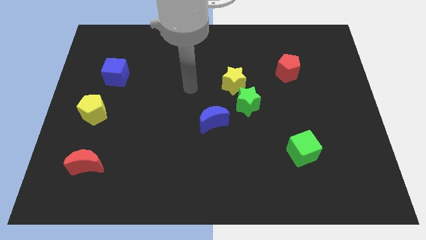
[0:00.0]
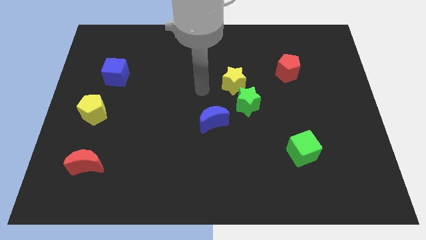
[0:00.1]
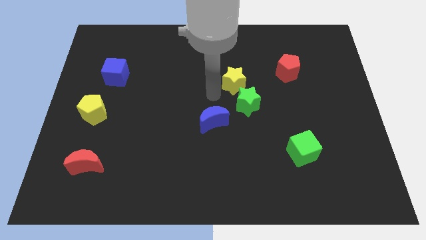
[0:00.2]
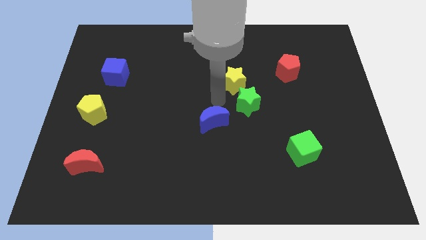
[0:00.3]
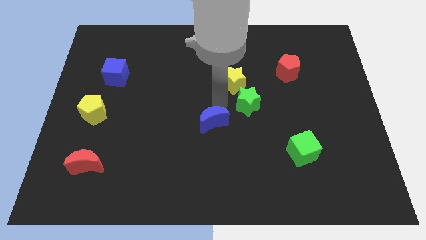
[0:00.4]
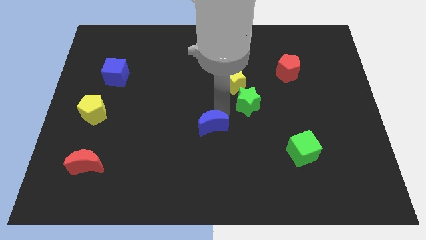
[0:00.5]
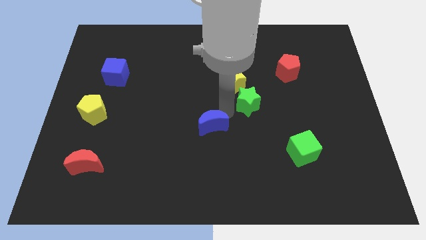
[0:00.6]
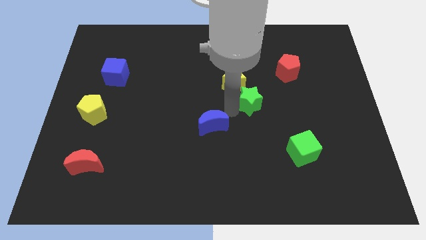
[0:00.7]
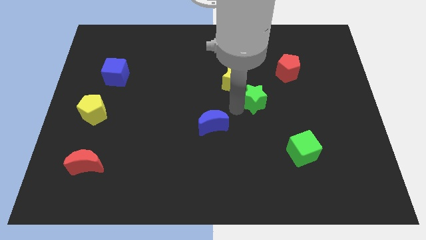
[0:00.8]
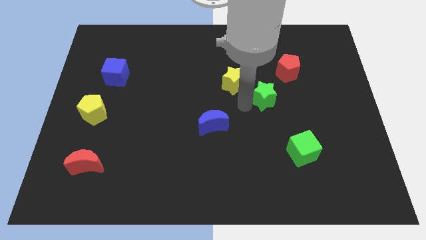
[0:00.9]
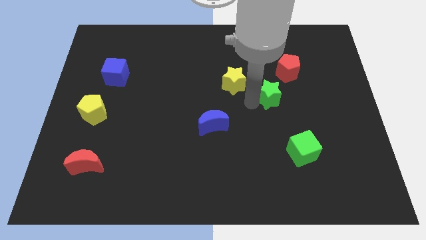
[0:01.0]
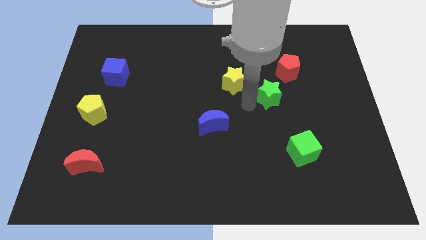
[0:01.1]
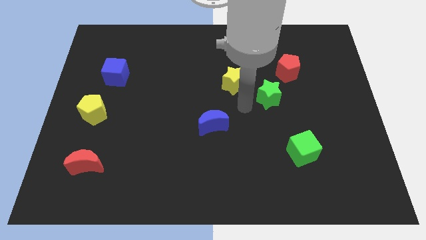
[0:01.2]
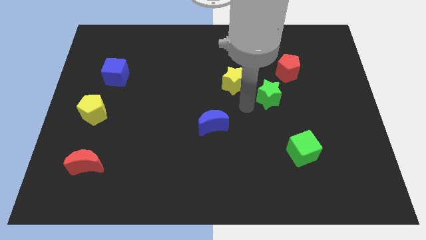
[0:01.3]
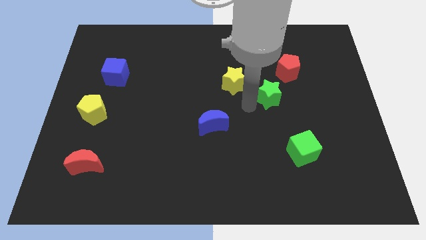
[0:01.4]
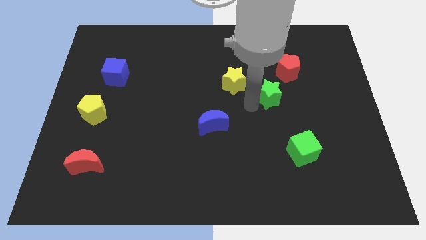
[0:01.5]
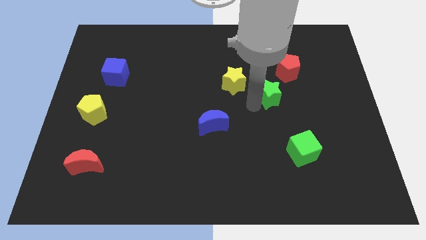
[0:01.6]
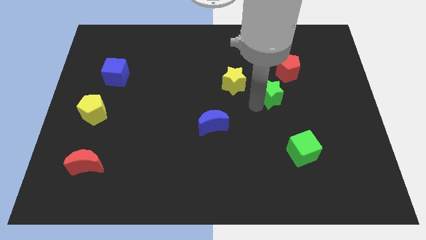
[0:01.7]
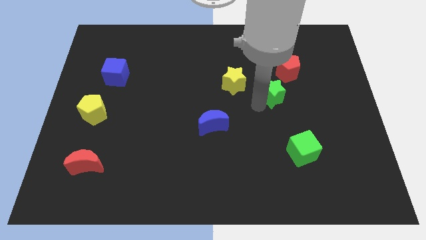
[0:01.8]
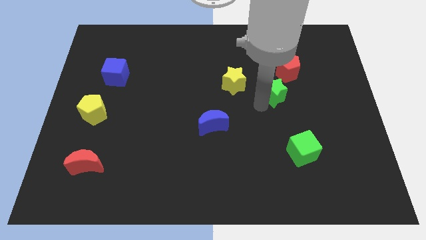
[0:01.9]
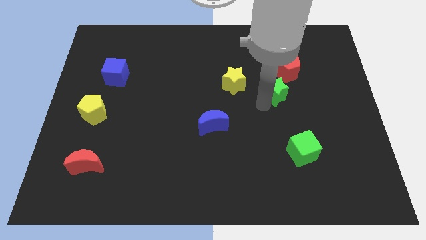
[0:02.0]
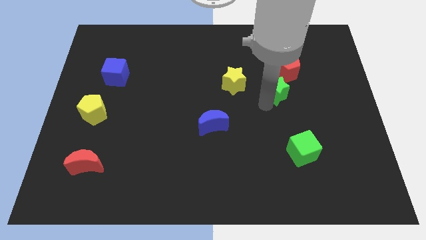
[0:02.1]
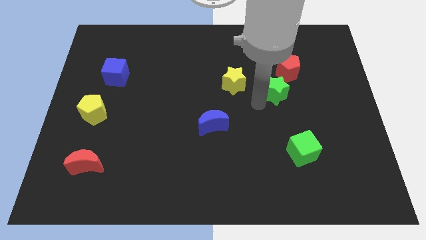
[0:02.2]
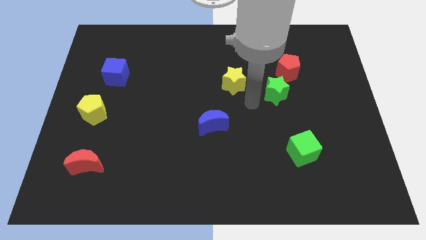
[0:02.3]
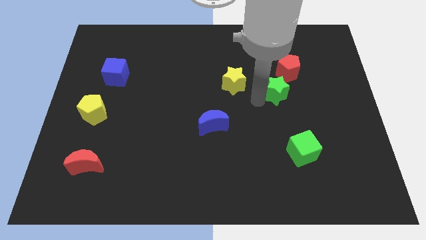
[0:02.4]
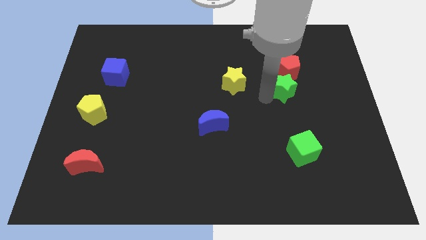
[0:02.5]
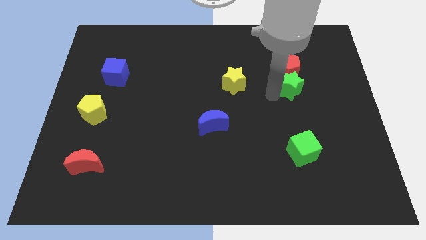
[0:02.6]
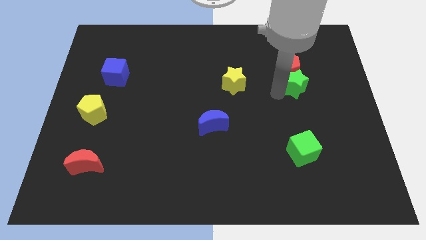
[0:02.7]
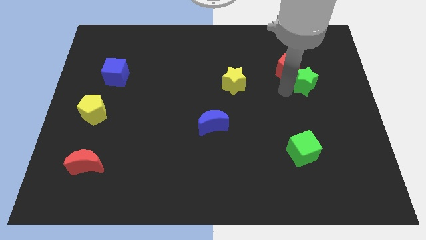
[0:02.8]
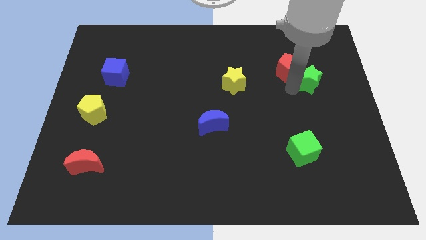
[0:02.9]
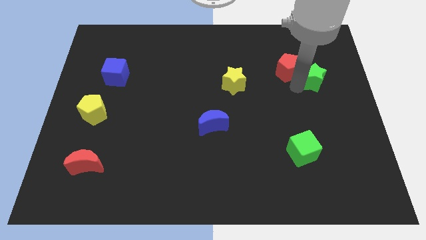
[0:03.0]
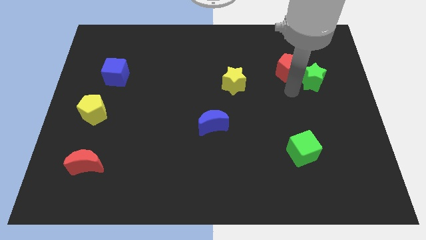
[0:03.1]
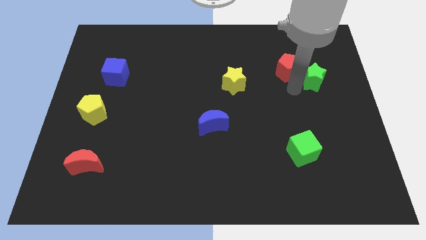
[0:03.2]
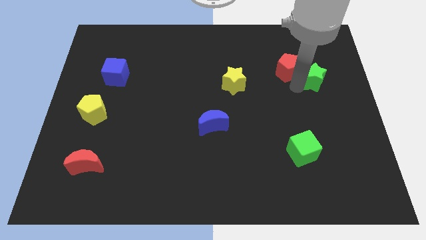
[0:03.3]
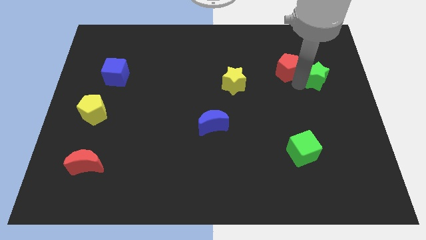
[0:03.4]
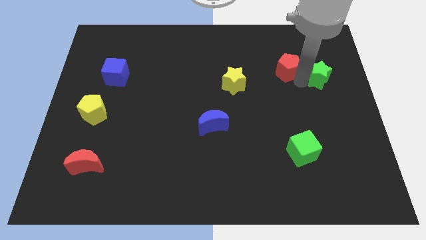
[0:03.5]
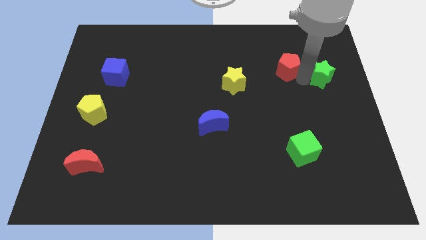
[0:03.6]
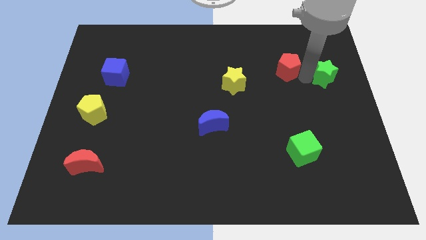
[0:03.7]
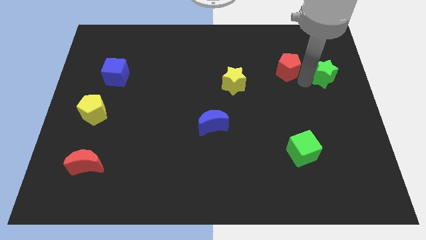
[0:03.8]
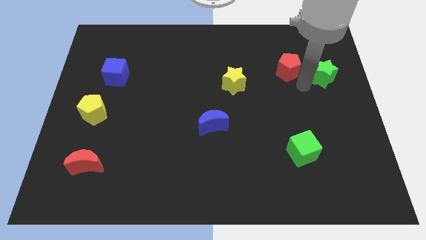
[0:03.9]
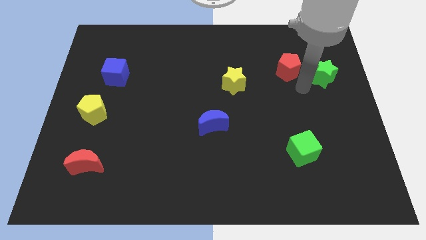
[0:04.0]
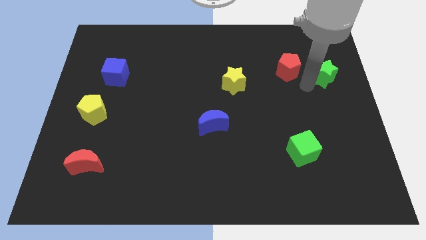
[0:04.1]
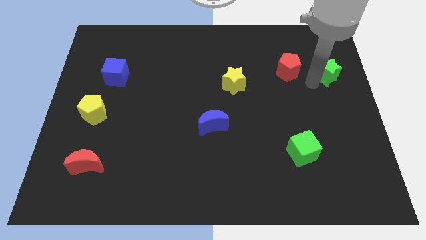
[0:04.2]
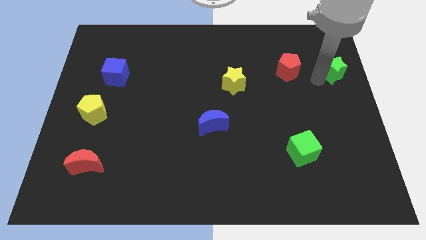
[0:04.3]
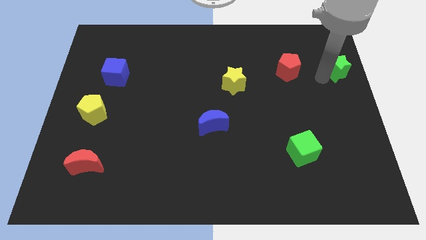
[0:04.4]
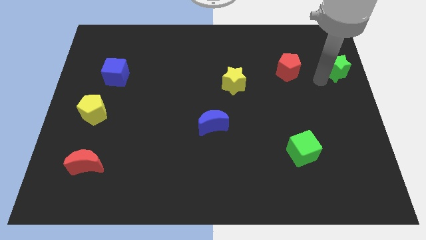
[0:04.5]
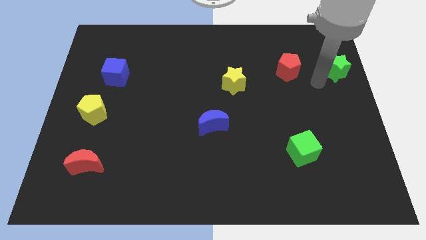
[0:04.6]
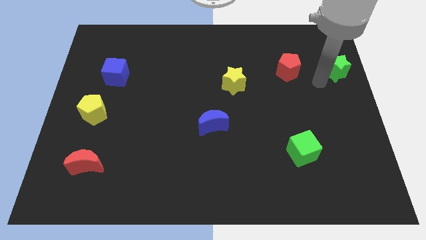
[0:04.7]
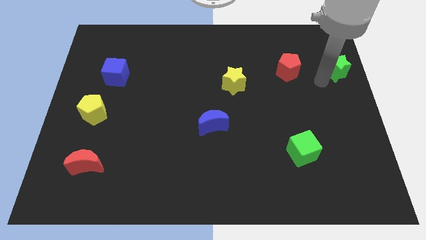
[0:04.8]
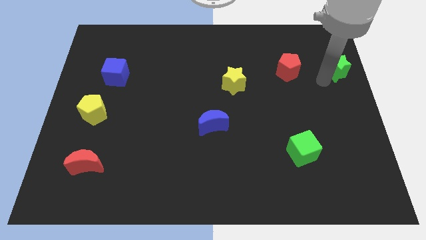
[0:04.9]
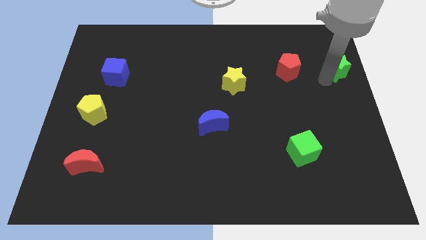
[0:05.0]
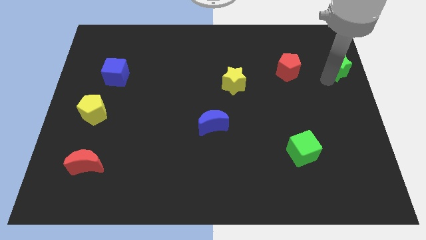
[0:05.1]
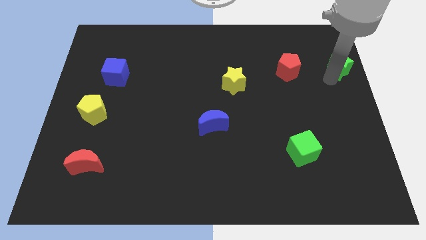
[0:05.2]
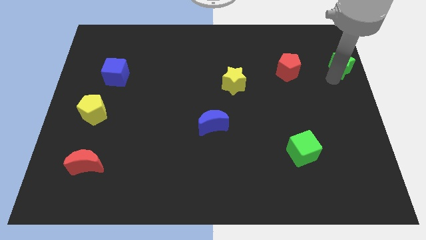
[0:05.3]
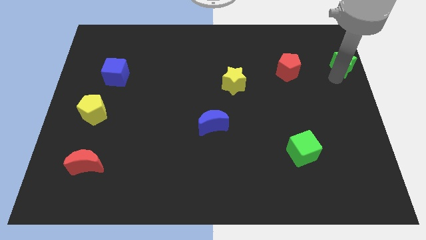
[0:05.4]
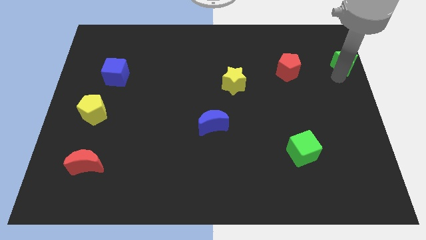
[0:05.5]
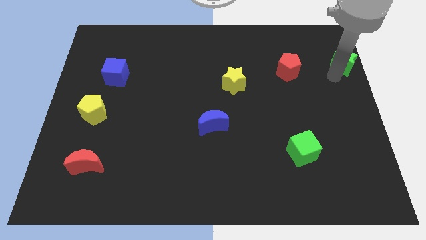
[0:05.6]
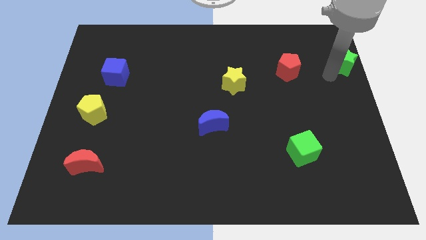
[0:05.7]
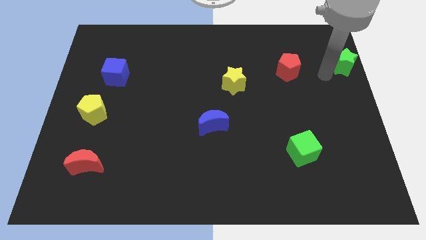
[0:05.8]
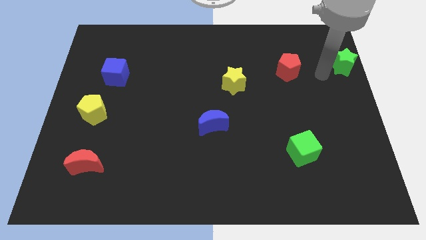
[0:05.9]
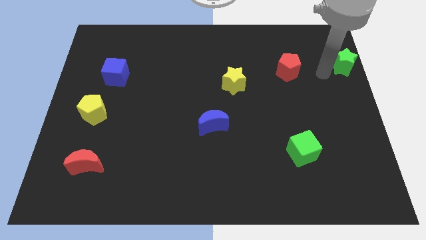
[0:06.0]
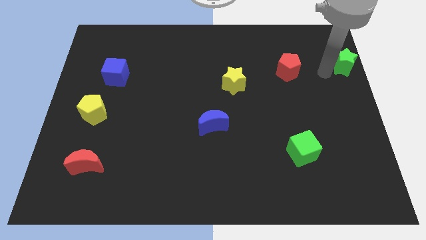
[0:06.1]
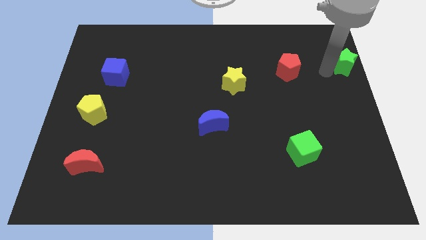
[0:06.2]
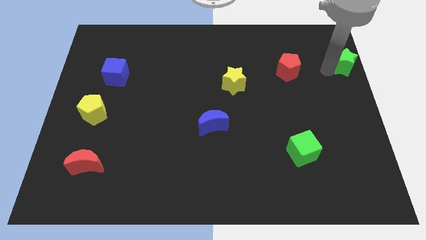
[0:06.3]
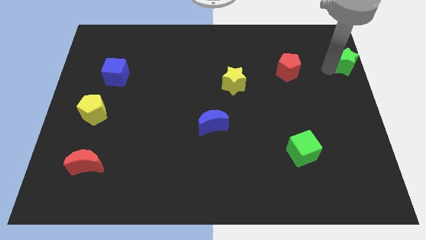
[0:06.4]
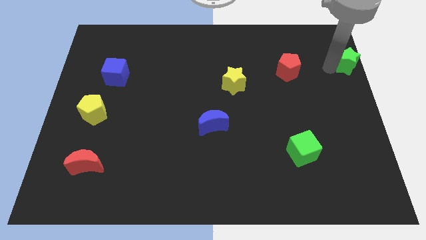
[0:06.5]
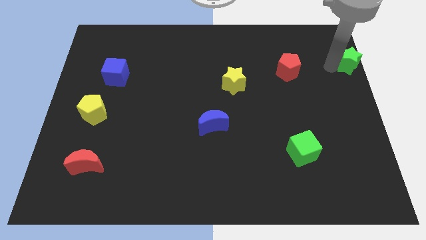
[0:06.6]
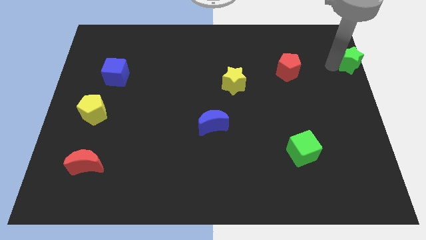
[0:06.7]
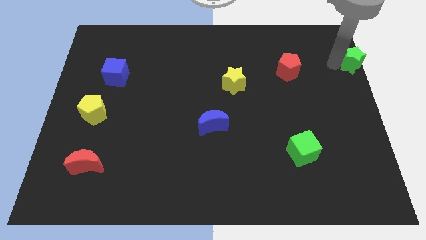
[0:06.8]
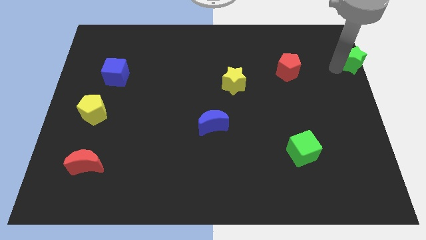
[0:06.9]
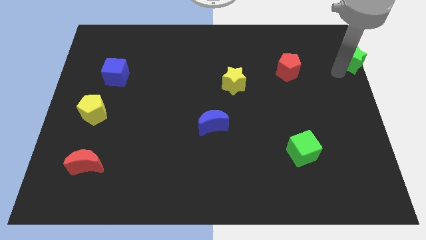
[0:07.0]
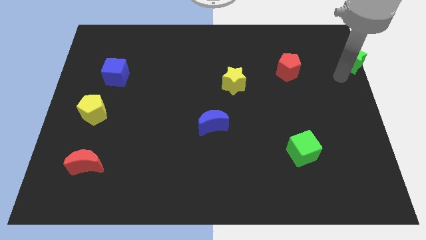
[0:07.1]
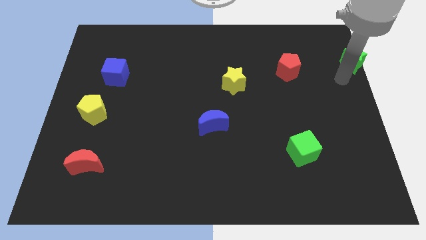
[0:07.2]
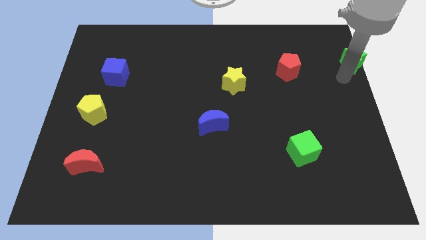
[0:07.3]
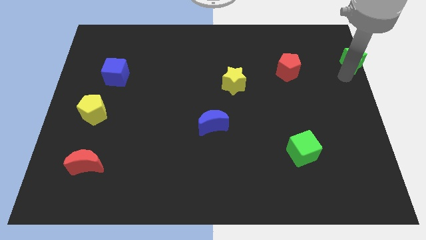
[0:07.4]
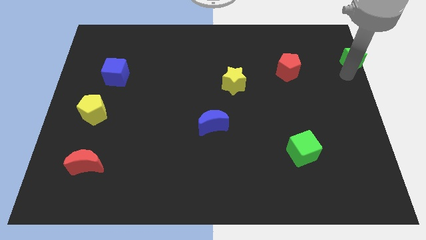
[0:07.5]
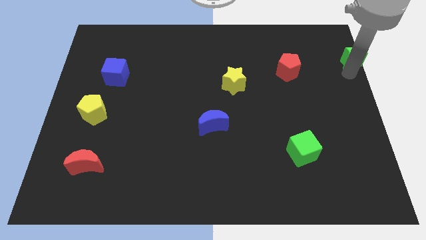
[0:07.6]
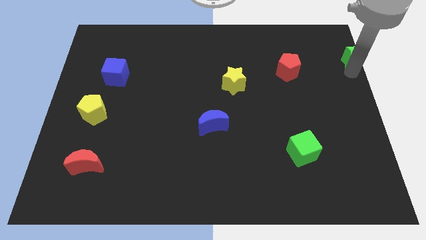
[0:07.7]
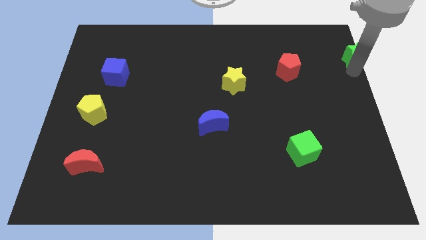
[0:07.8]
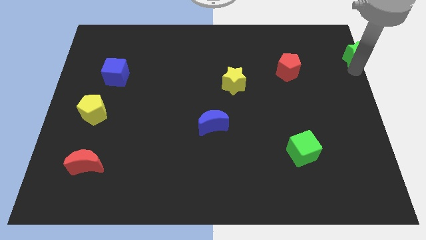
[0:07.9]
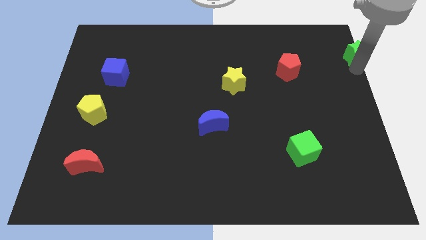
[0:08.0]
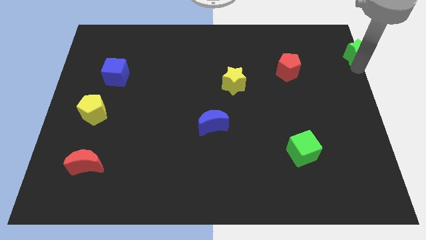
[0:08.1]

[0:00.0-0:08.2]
put the green star to the upper right corner

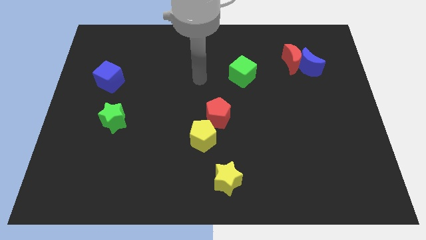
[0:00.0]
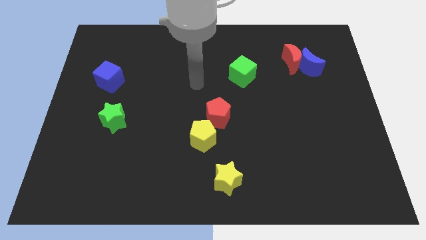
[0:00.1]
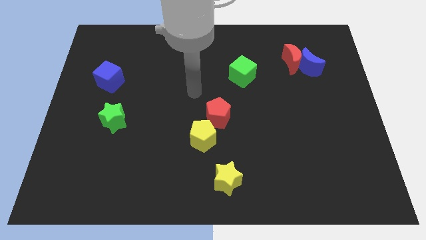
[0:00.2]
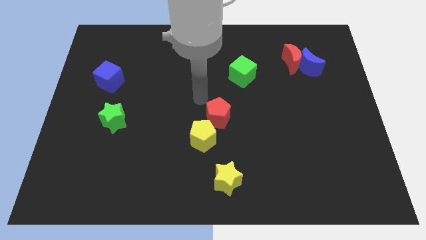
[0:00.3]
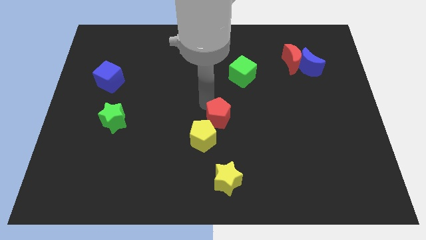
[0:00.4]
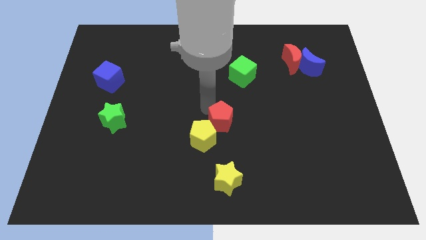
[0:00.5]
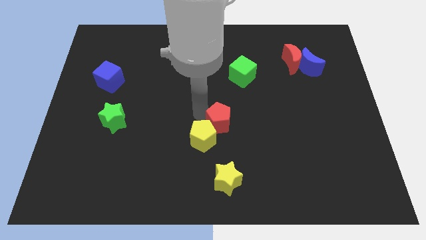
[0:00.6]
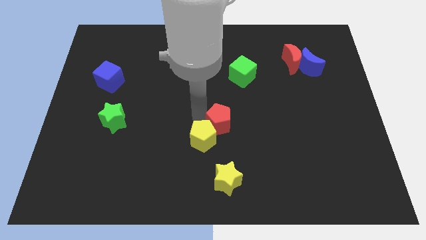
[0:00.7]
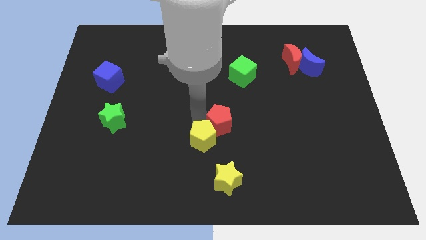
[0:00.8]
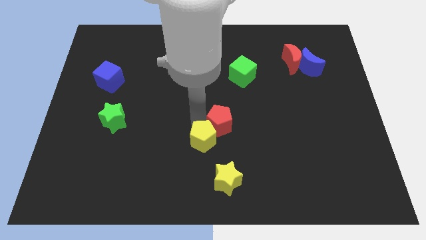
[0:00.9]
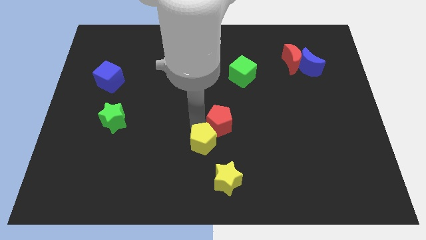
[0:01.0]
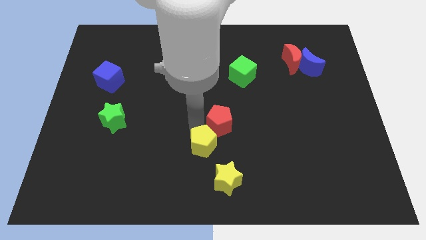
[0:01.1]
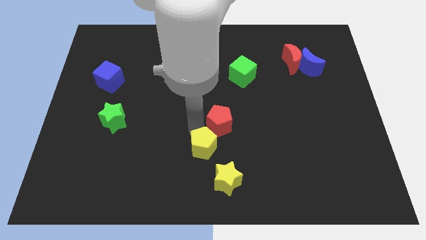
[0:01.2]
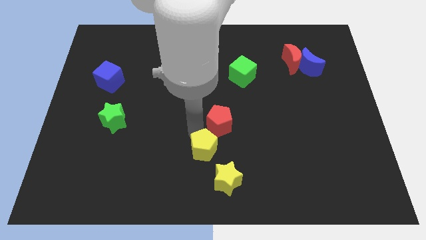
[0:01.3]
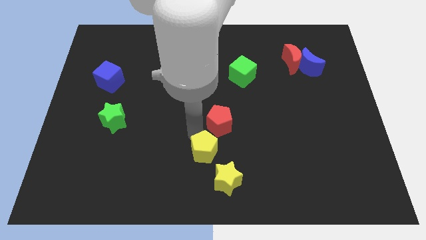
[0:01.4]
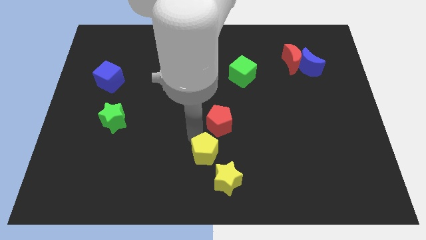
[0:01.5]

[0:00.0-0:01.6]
slide the yellow pentagon to the bottom
